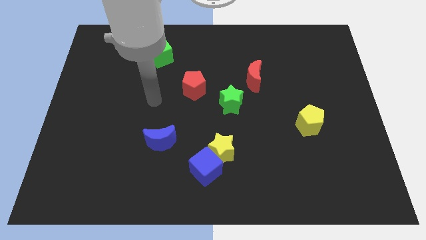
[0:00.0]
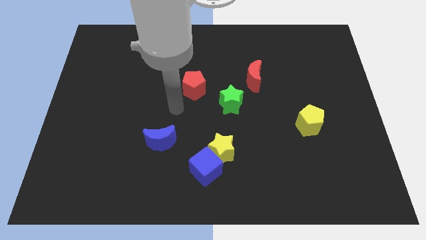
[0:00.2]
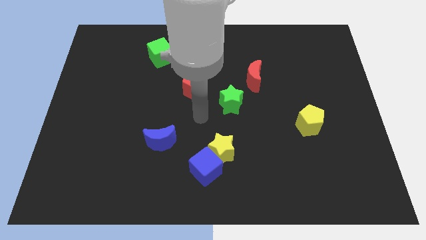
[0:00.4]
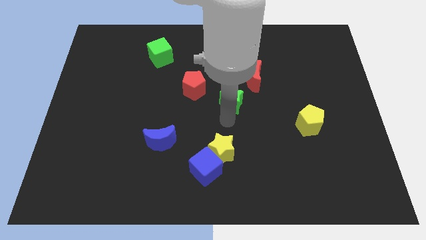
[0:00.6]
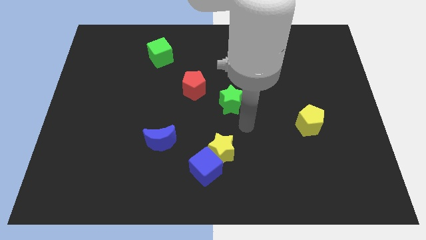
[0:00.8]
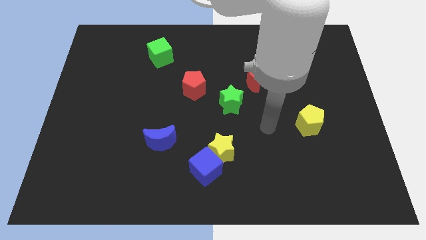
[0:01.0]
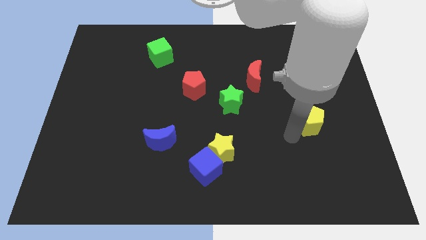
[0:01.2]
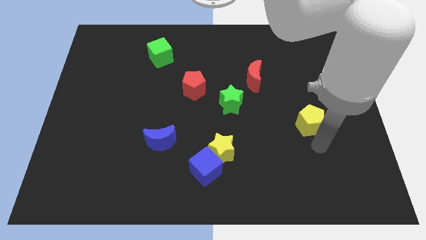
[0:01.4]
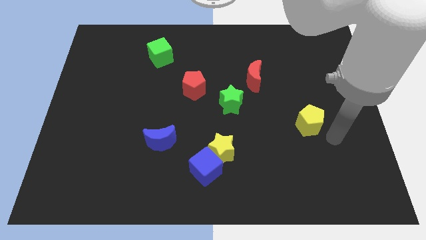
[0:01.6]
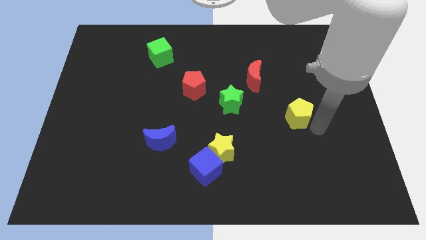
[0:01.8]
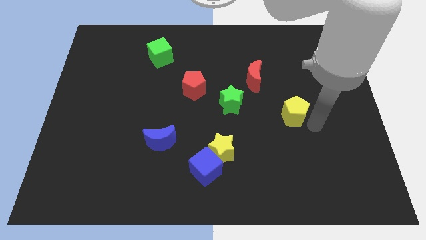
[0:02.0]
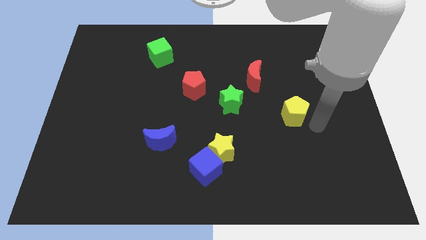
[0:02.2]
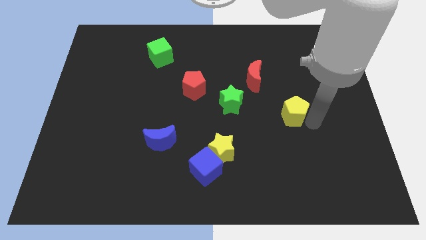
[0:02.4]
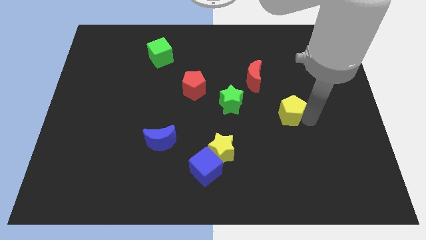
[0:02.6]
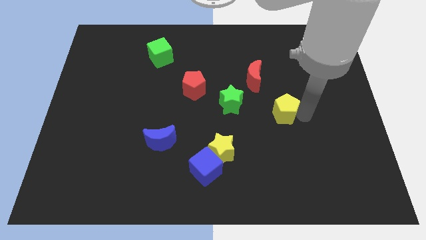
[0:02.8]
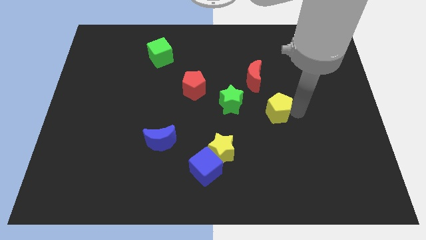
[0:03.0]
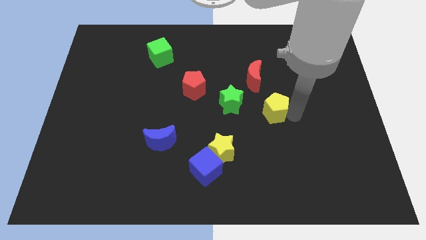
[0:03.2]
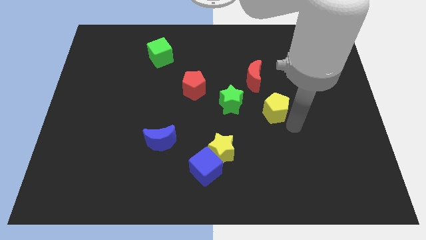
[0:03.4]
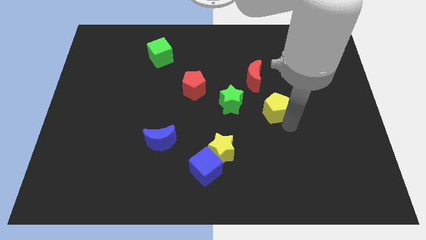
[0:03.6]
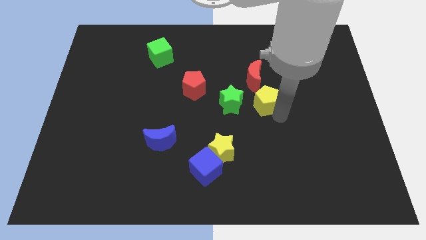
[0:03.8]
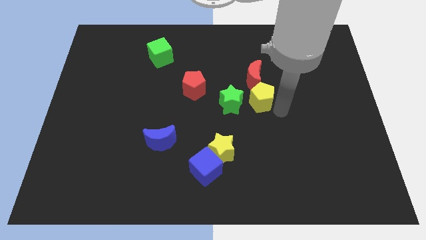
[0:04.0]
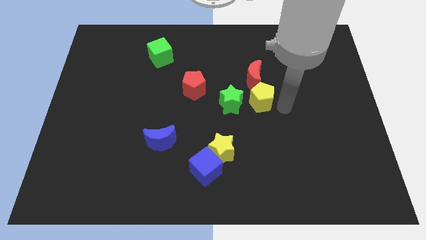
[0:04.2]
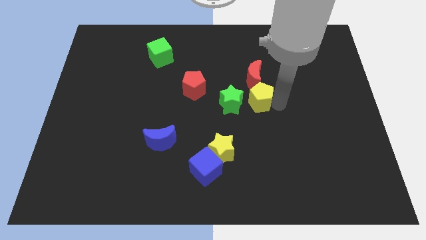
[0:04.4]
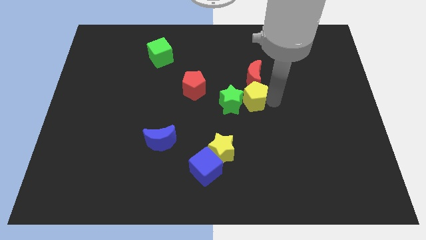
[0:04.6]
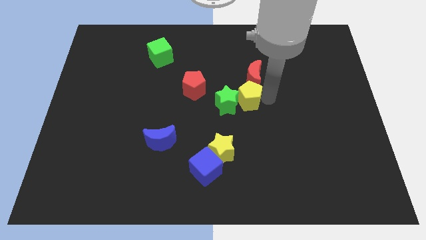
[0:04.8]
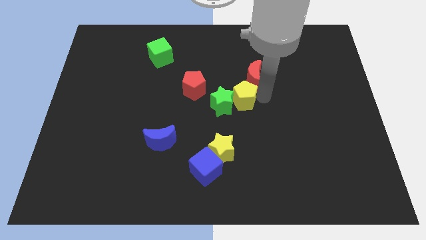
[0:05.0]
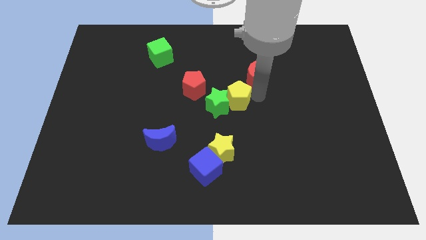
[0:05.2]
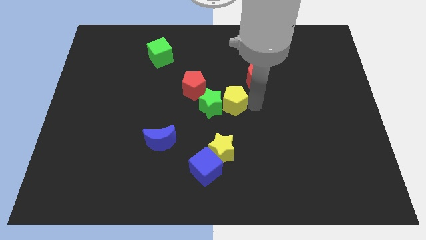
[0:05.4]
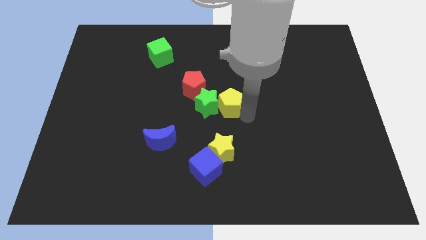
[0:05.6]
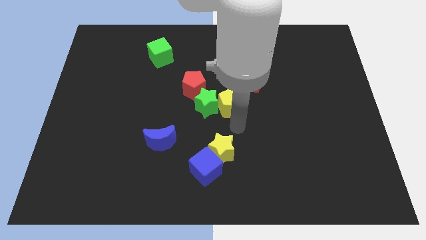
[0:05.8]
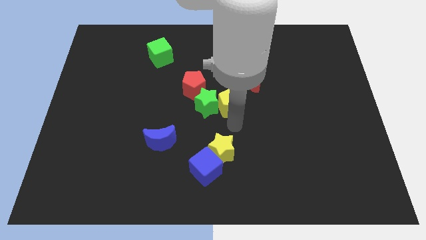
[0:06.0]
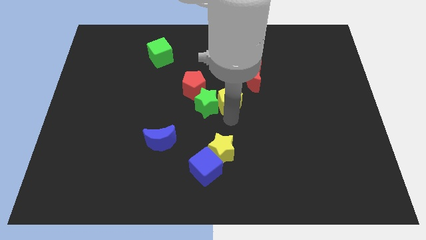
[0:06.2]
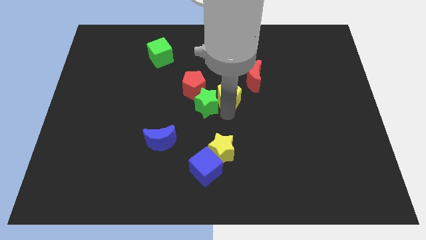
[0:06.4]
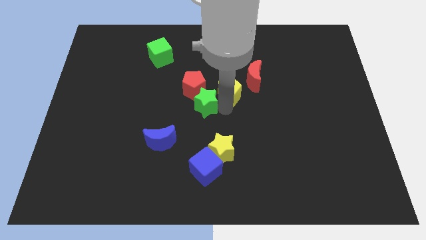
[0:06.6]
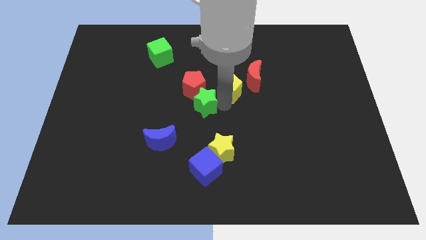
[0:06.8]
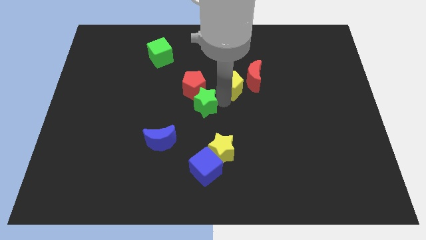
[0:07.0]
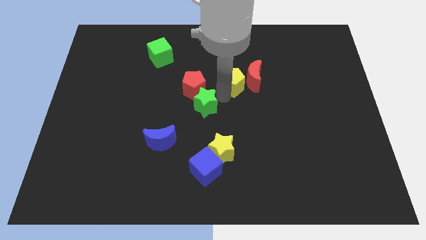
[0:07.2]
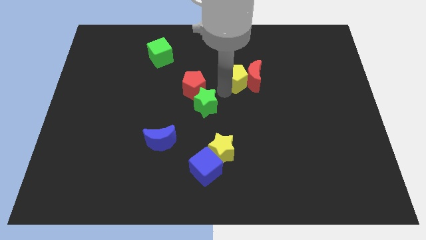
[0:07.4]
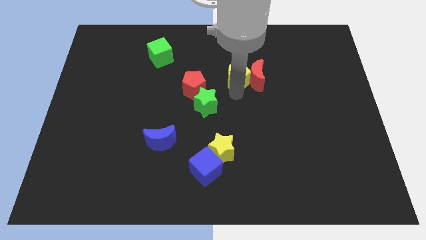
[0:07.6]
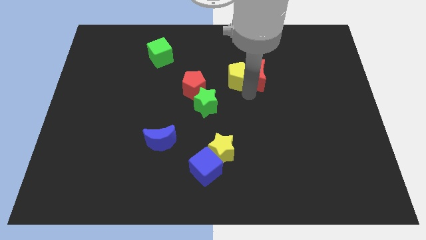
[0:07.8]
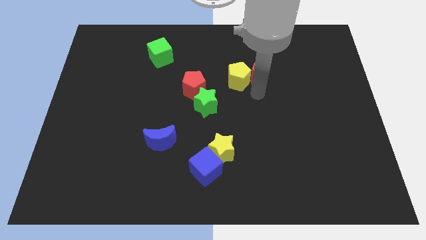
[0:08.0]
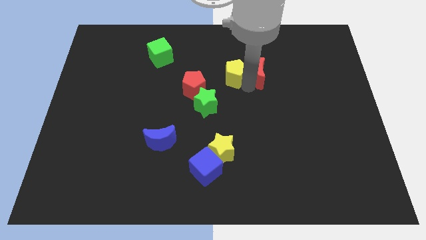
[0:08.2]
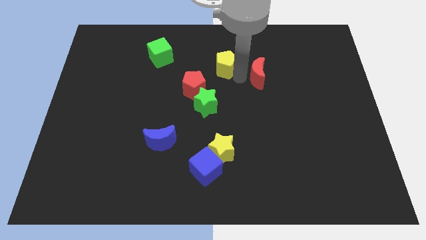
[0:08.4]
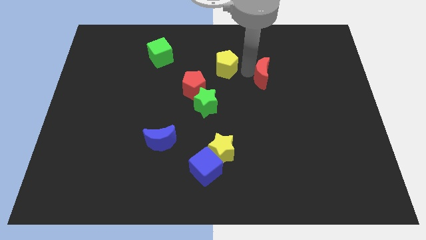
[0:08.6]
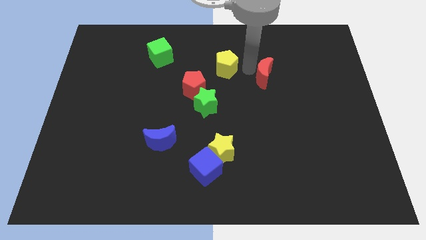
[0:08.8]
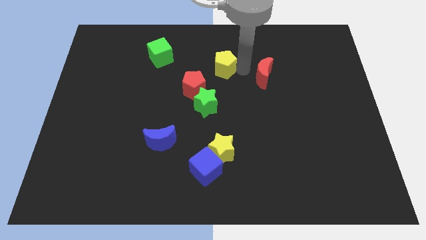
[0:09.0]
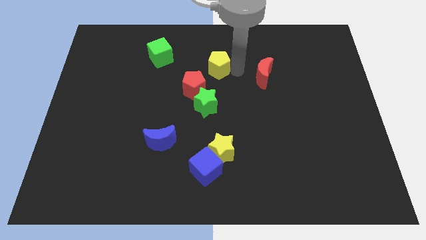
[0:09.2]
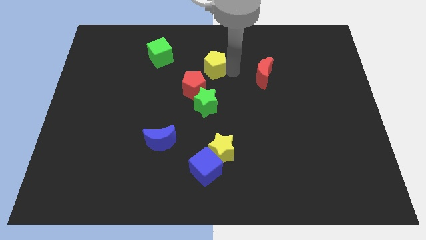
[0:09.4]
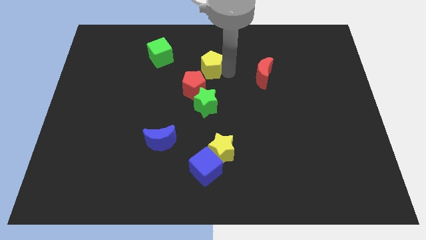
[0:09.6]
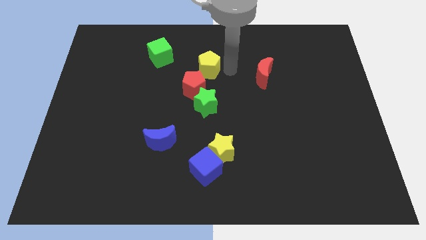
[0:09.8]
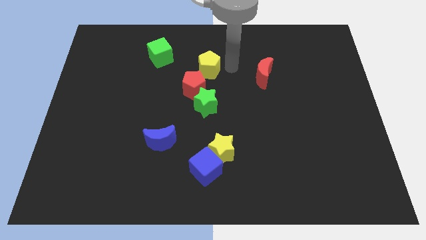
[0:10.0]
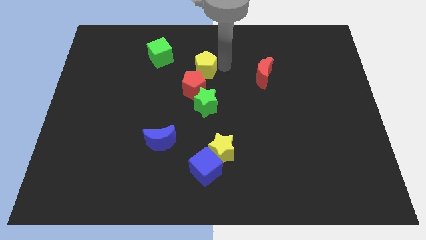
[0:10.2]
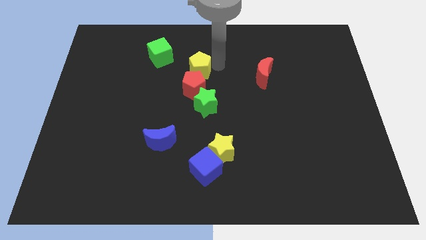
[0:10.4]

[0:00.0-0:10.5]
slide the yellow pentagon diagonally down and to the right of the green cube

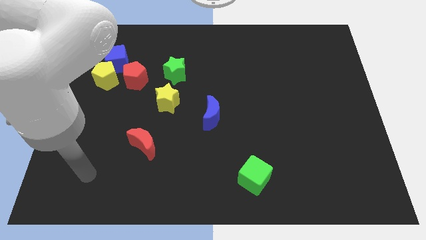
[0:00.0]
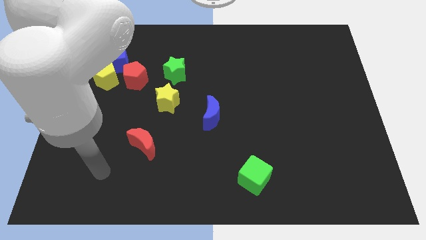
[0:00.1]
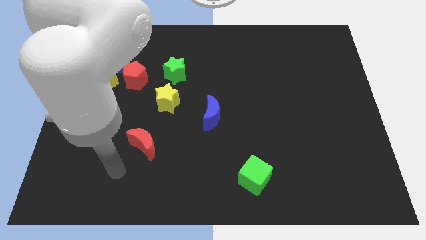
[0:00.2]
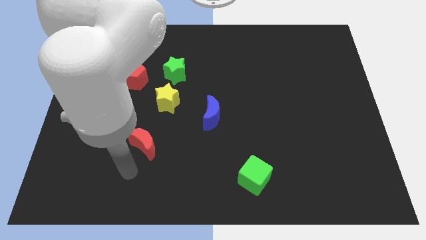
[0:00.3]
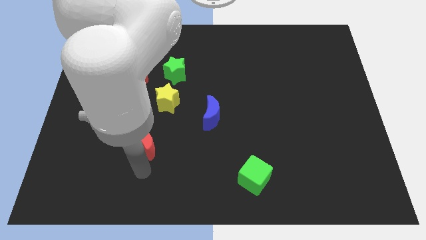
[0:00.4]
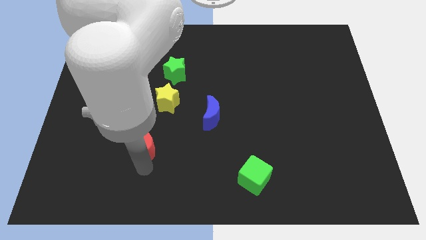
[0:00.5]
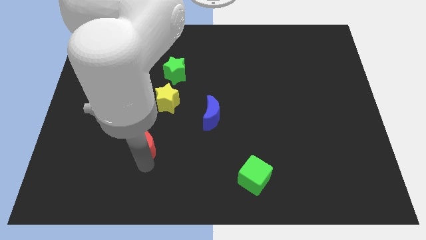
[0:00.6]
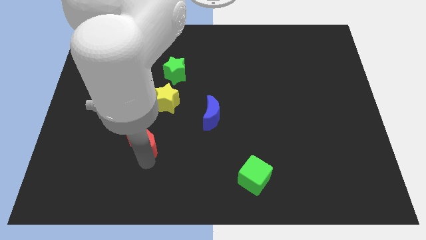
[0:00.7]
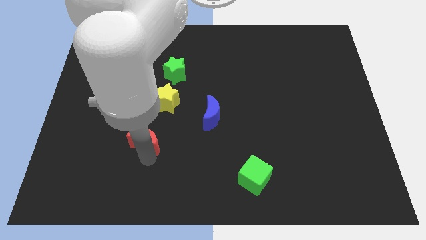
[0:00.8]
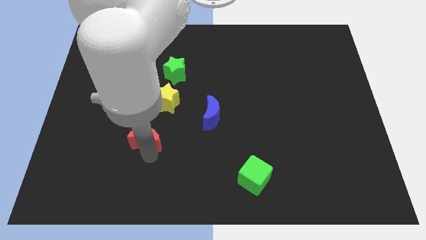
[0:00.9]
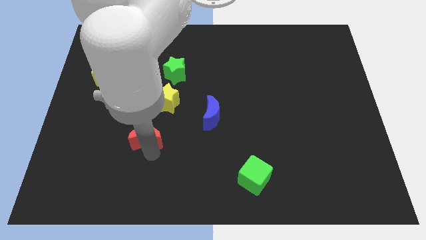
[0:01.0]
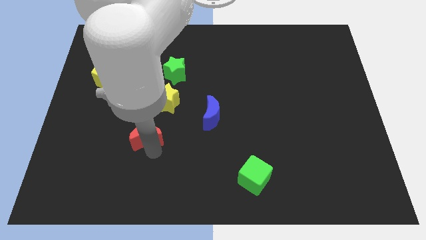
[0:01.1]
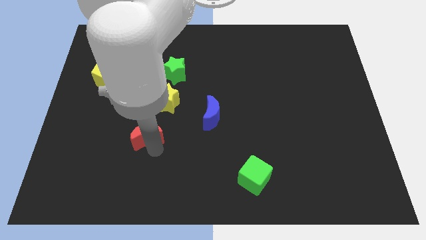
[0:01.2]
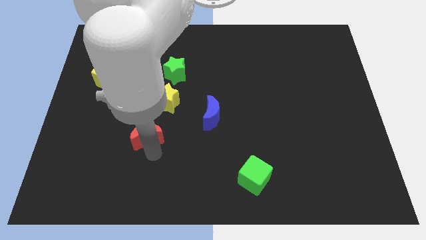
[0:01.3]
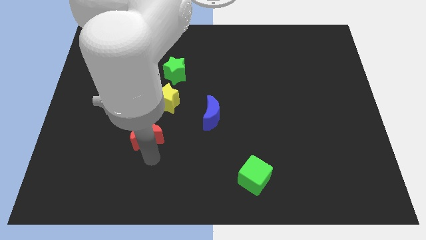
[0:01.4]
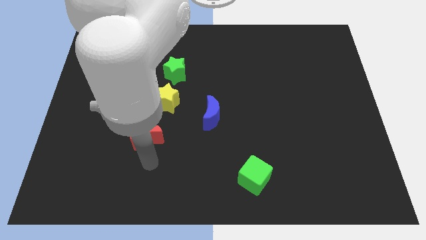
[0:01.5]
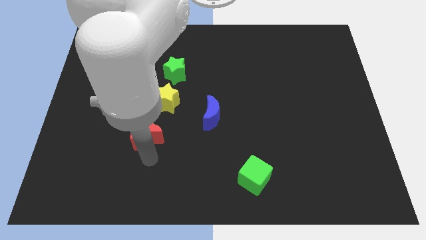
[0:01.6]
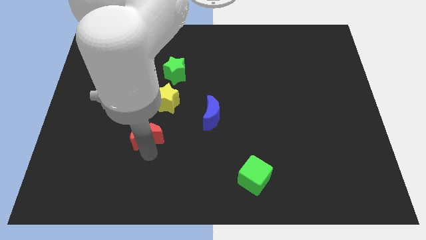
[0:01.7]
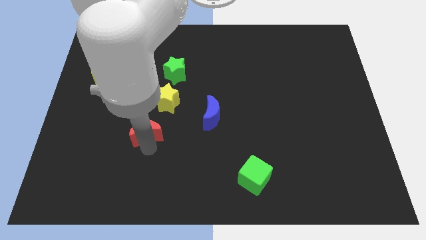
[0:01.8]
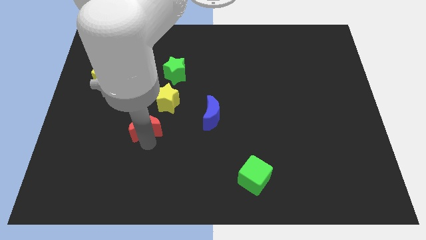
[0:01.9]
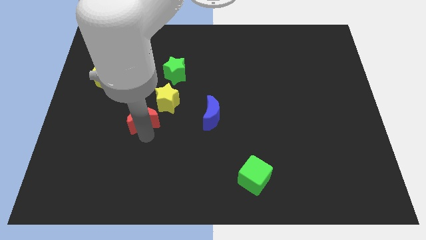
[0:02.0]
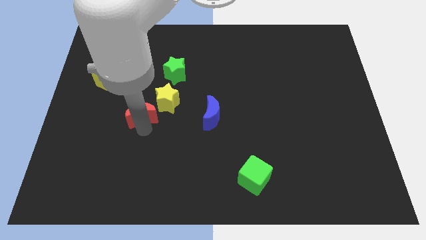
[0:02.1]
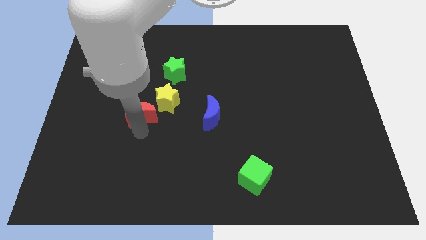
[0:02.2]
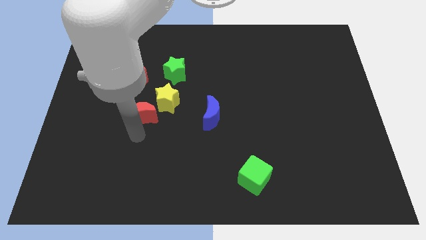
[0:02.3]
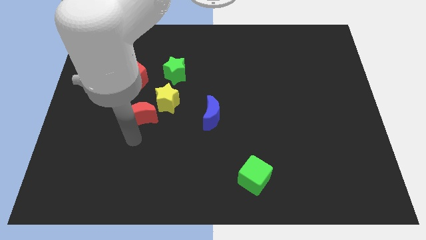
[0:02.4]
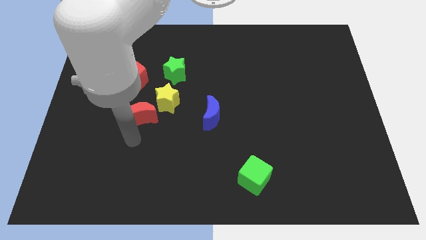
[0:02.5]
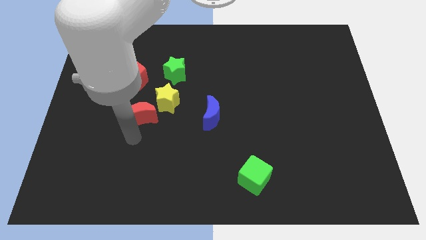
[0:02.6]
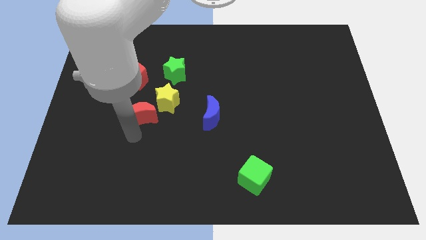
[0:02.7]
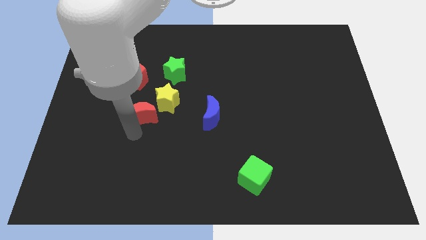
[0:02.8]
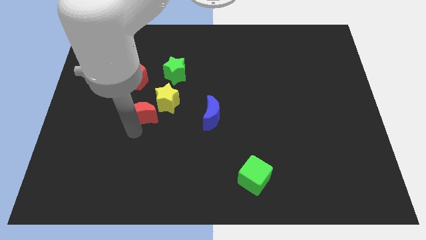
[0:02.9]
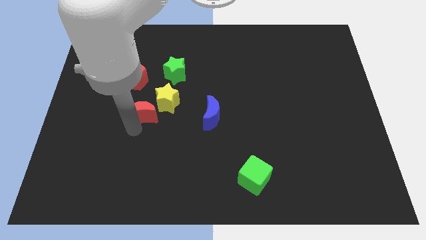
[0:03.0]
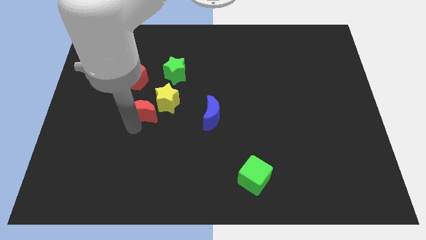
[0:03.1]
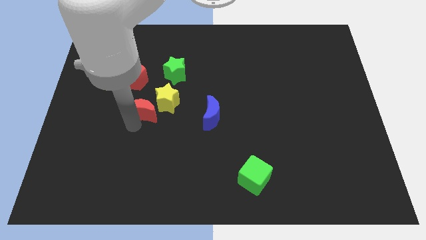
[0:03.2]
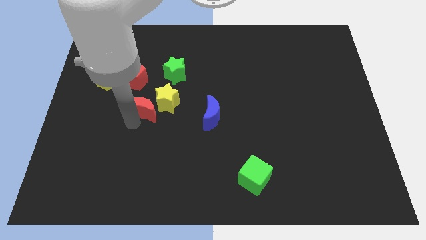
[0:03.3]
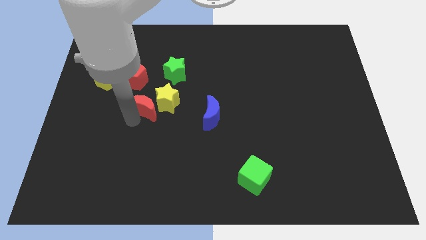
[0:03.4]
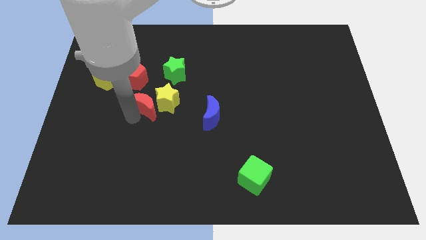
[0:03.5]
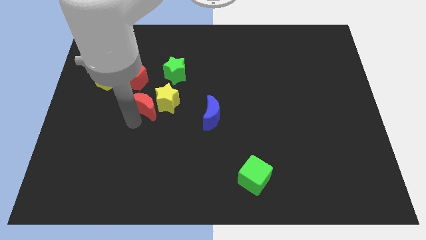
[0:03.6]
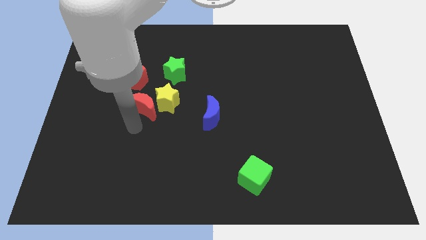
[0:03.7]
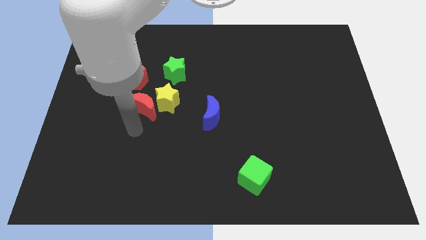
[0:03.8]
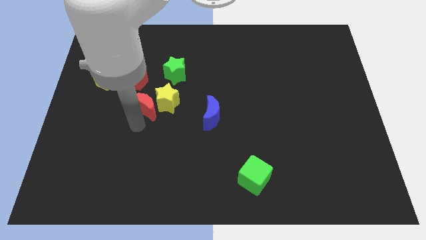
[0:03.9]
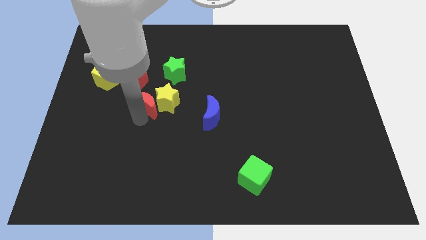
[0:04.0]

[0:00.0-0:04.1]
move the red moon diagonally down and to the left of the green star
